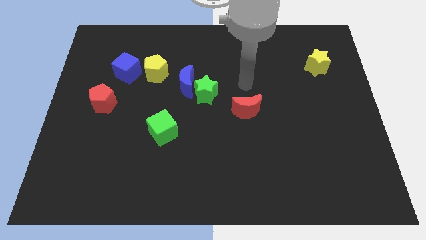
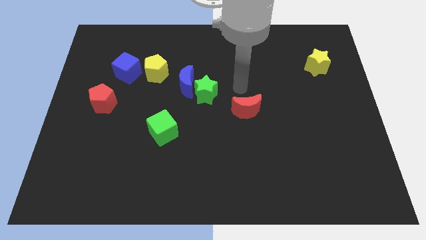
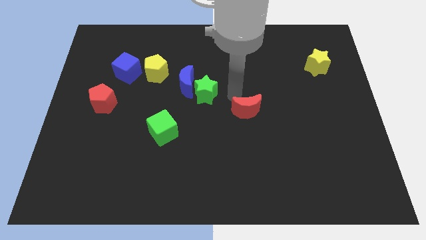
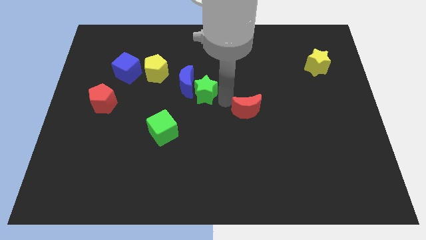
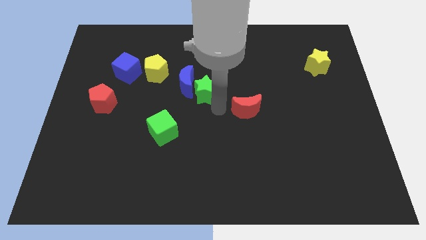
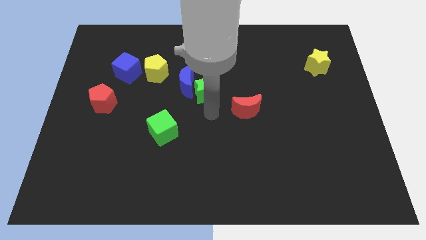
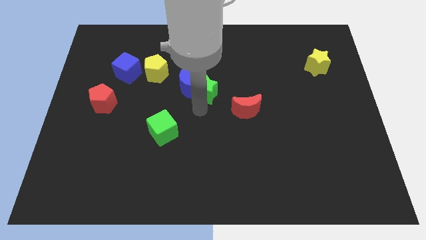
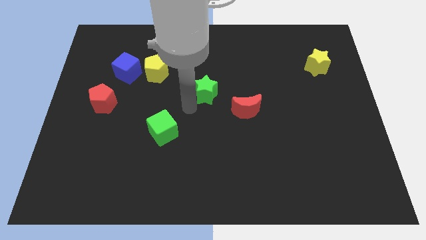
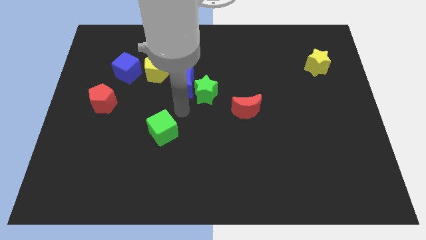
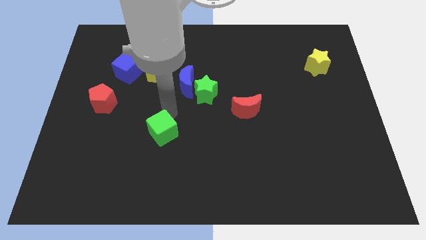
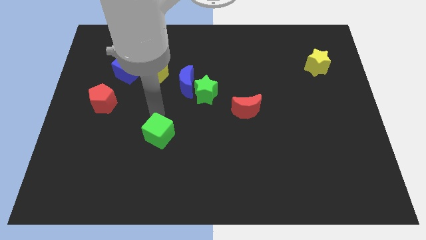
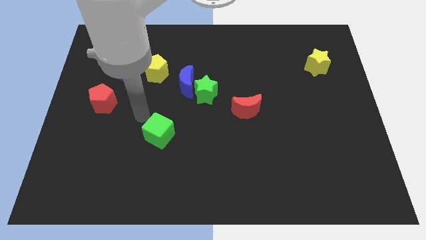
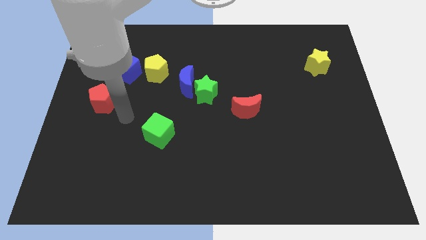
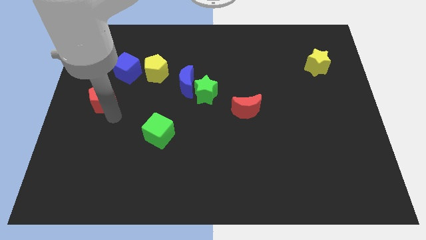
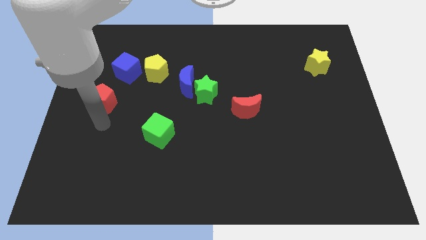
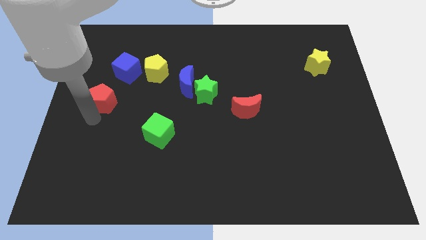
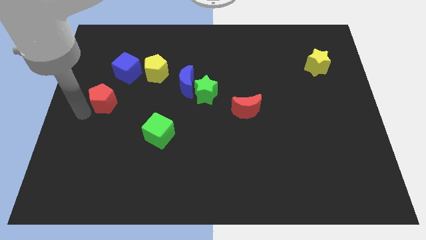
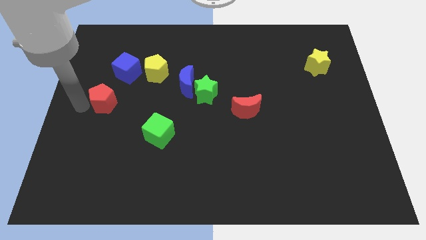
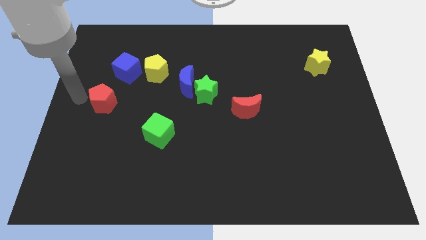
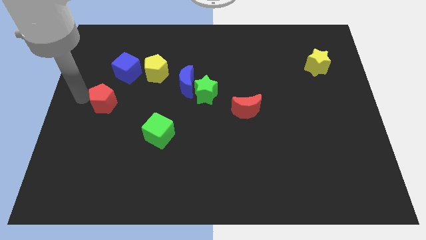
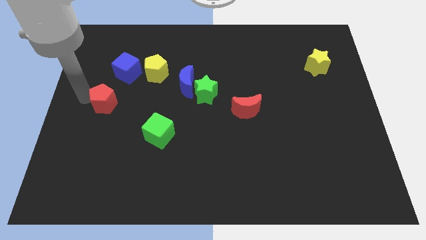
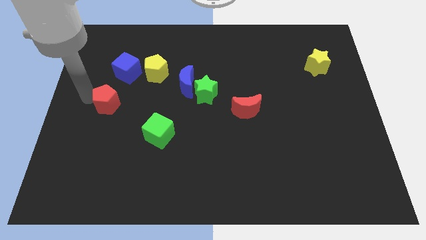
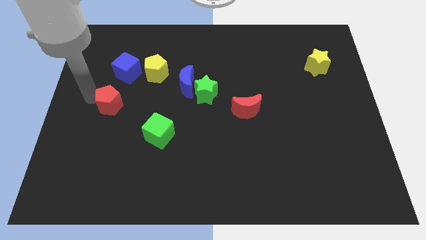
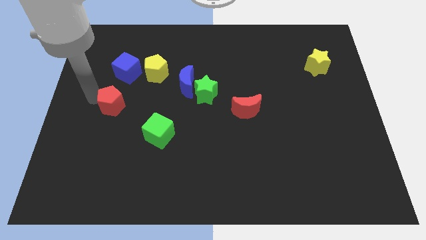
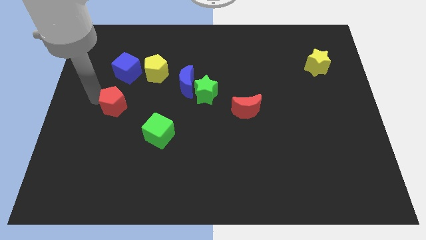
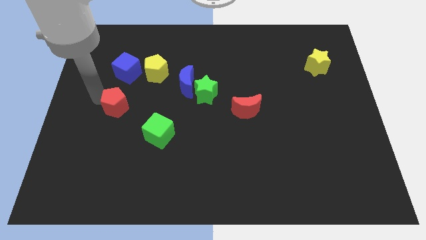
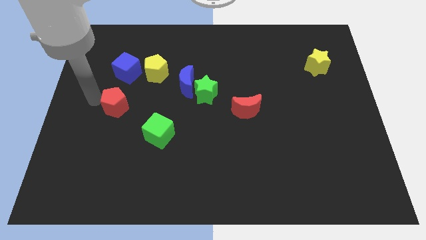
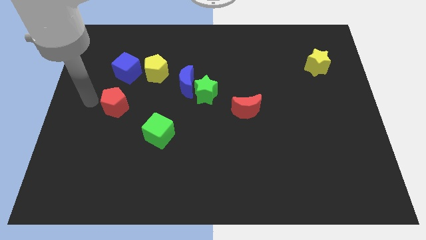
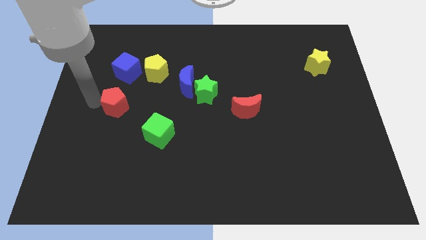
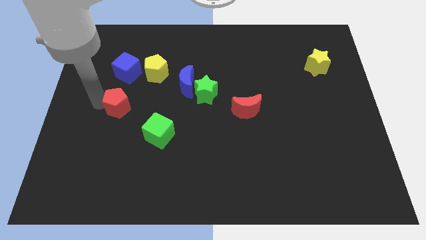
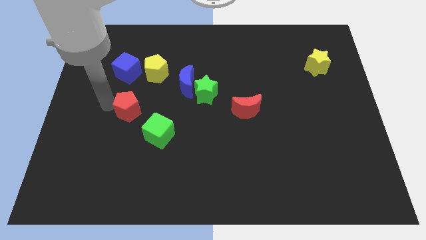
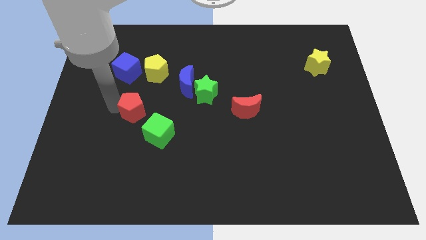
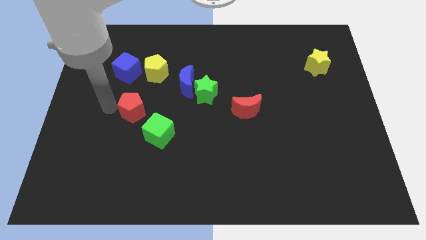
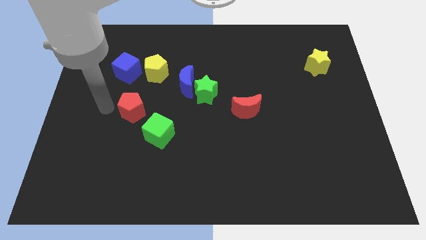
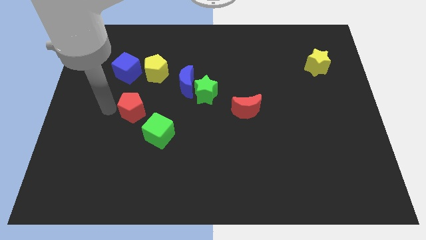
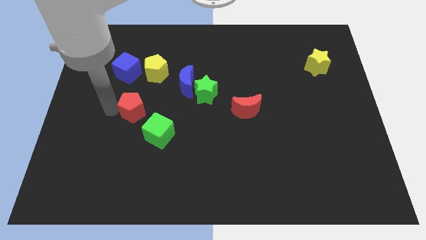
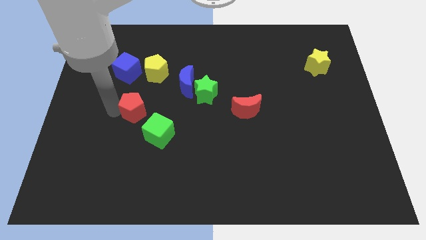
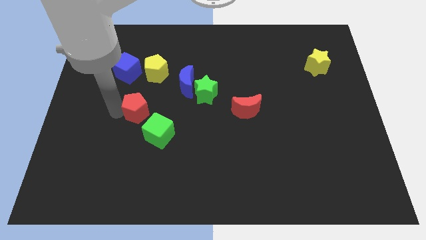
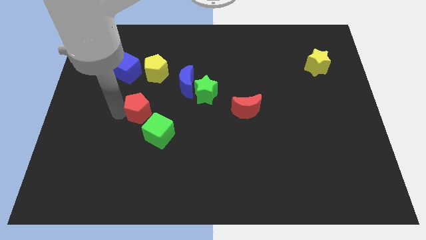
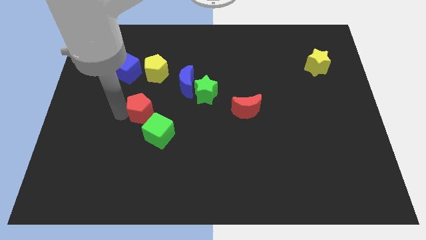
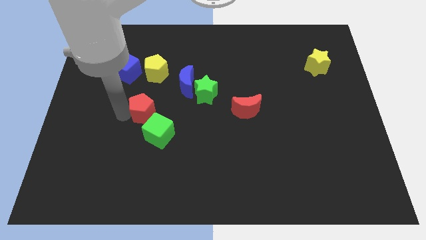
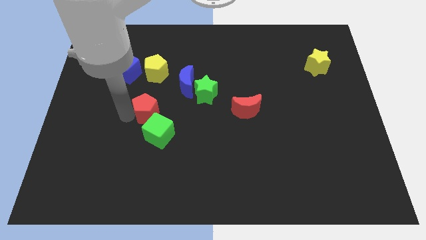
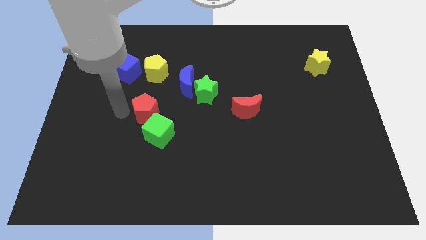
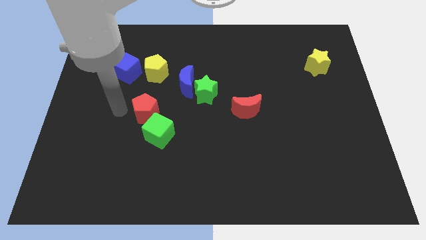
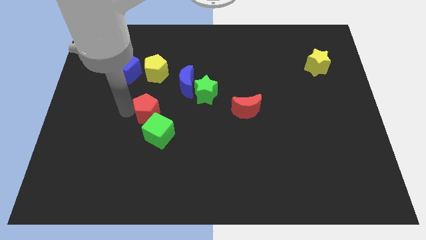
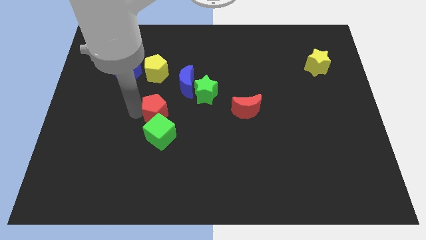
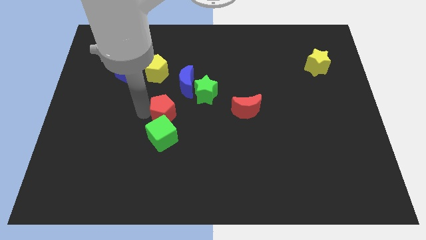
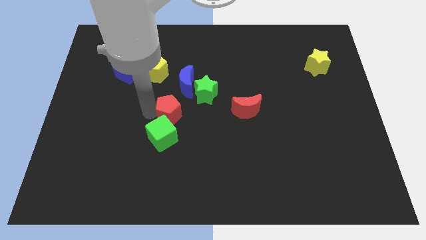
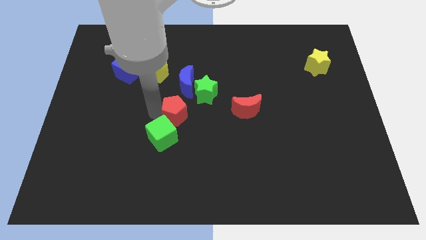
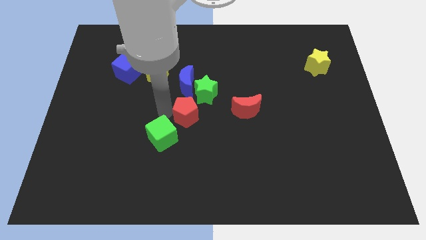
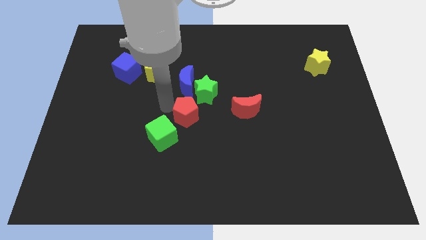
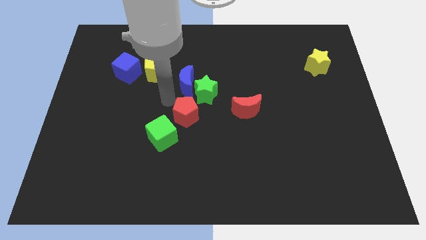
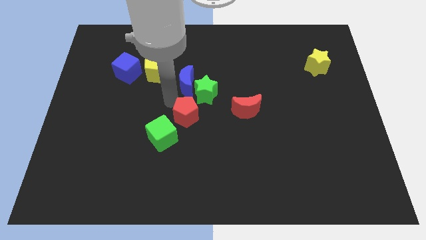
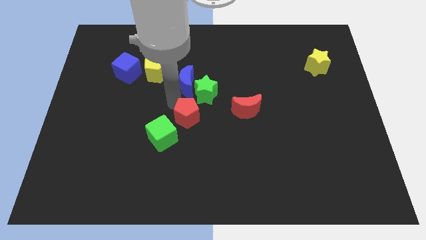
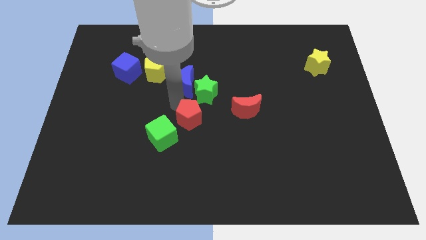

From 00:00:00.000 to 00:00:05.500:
move the red pentagon to the right side of the green cube

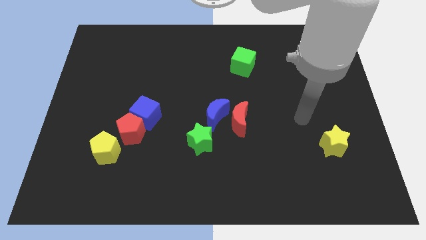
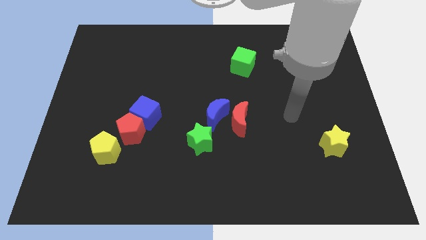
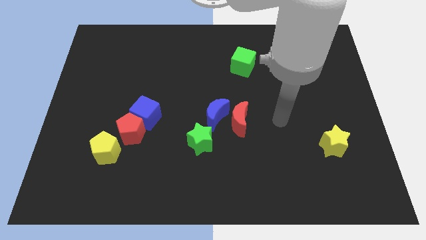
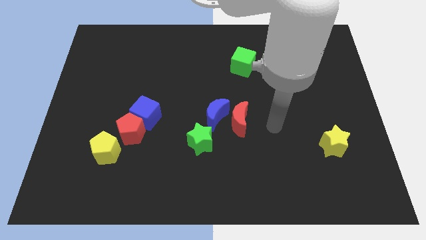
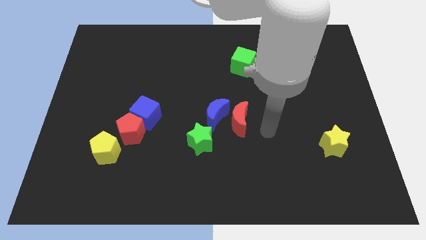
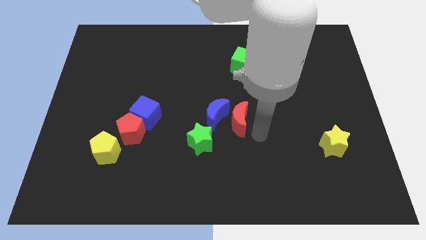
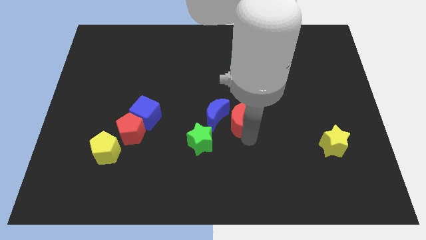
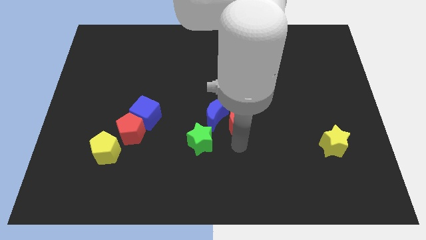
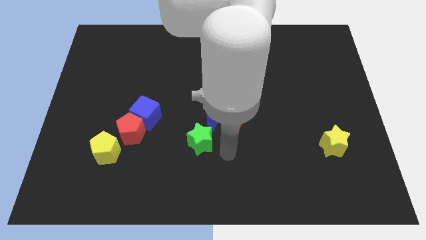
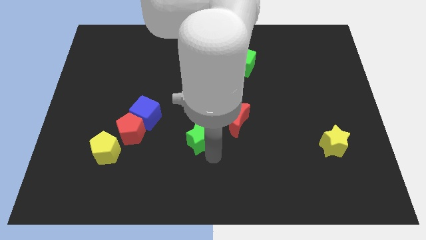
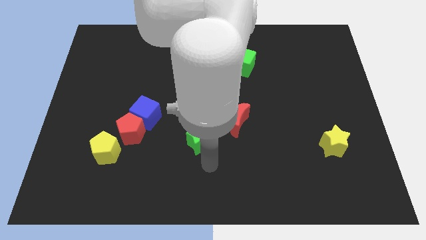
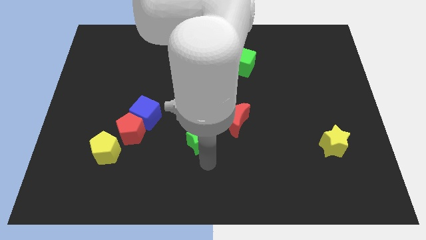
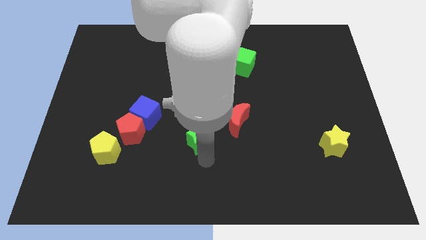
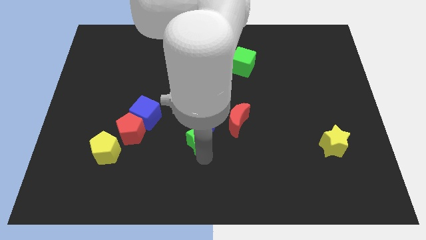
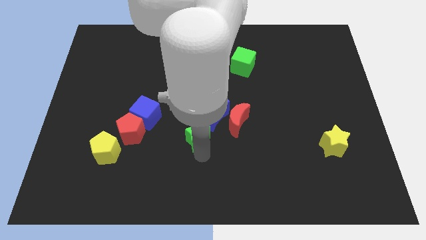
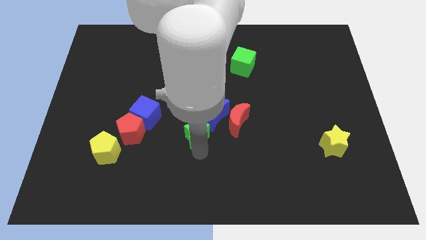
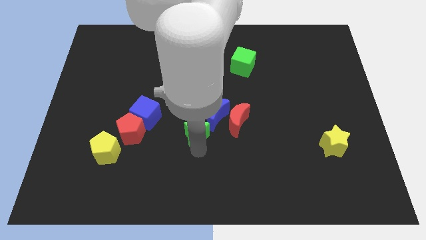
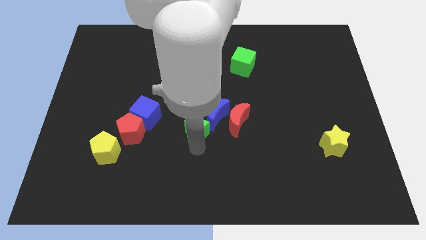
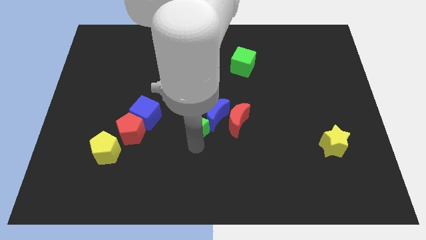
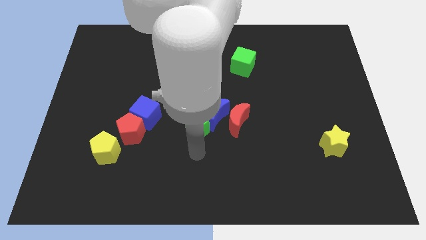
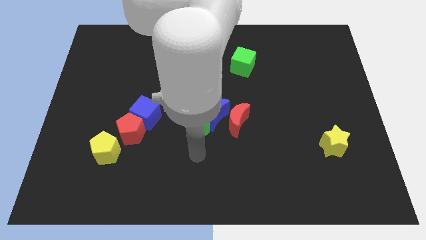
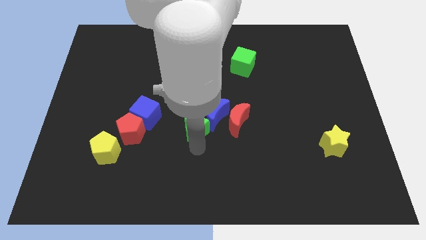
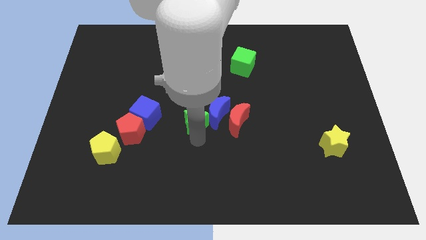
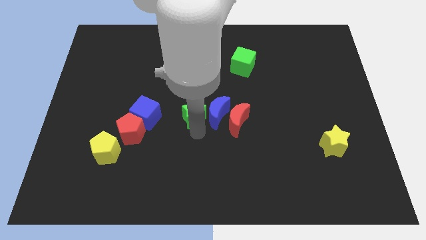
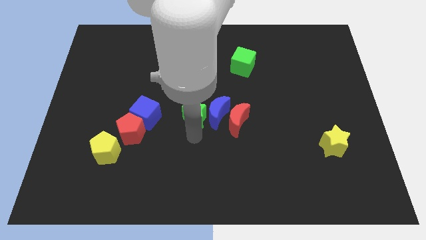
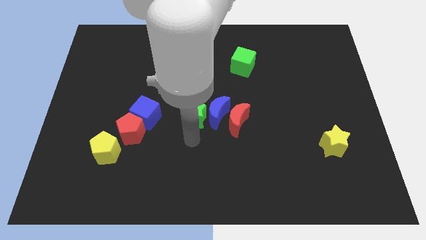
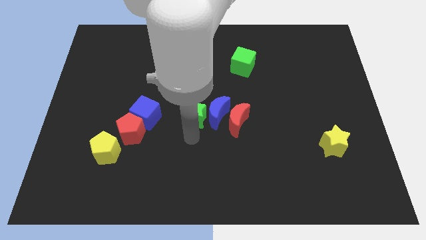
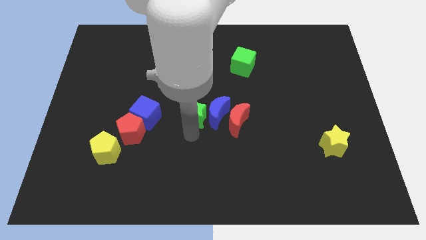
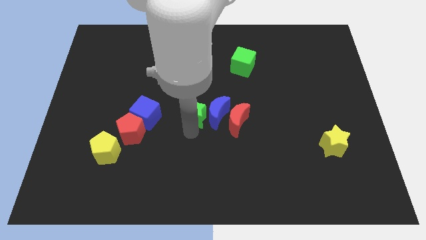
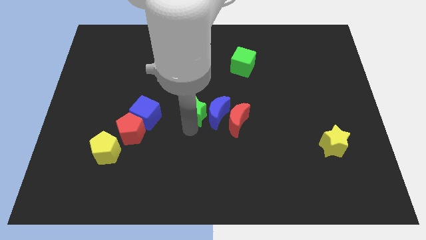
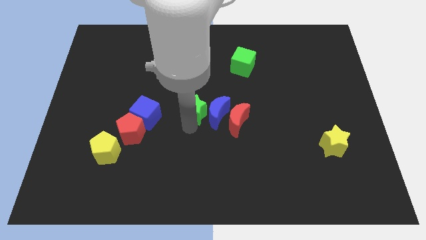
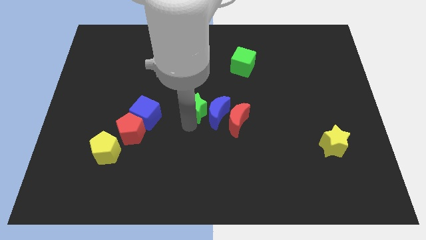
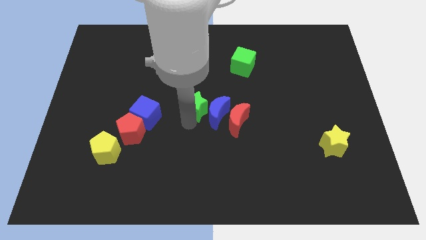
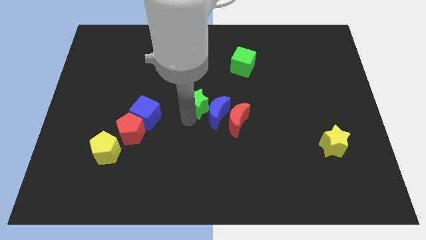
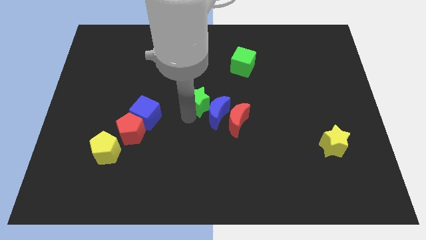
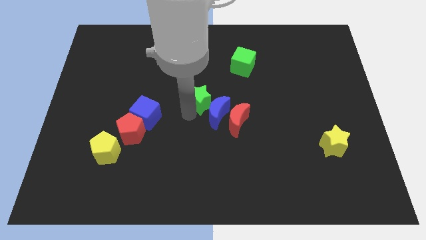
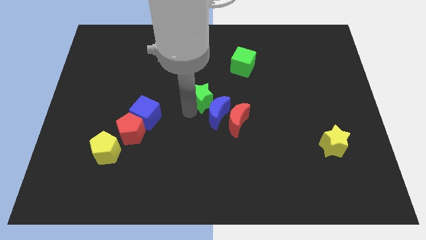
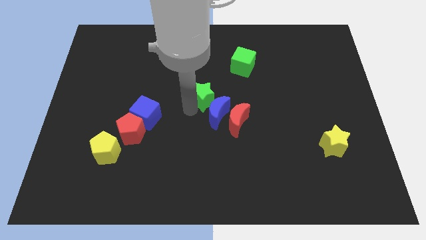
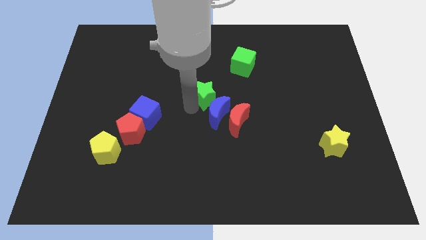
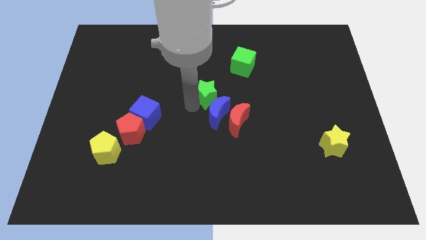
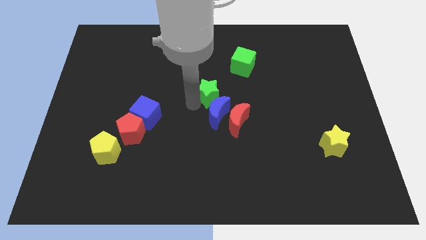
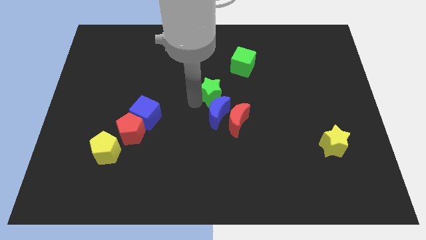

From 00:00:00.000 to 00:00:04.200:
push the green star to the bottom left of the green cube
